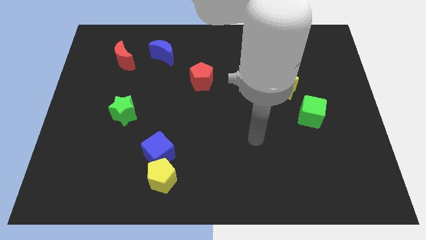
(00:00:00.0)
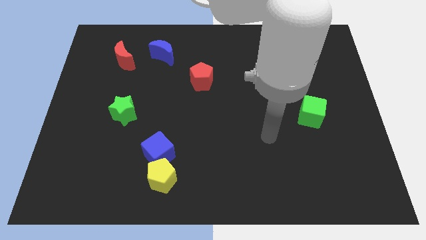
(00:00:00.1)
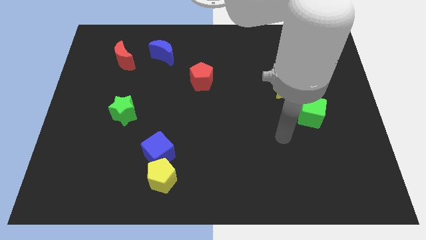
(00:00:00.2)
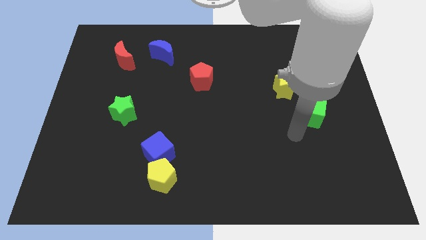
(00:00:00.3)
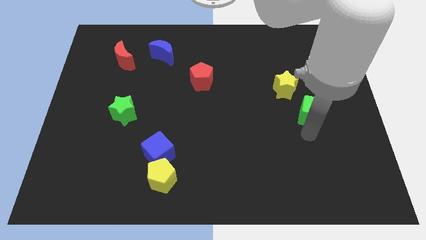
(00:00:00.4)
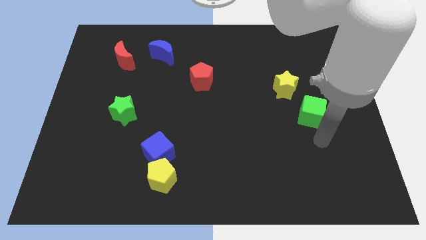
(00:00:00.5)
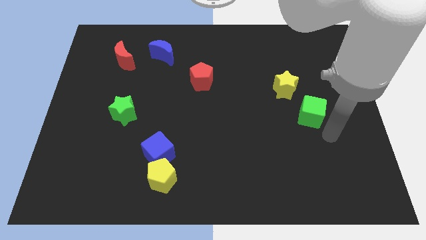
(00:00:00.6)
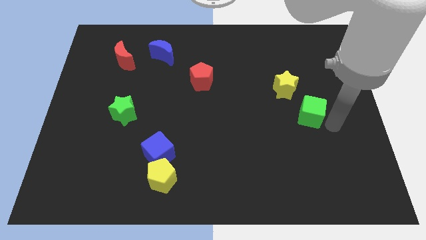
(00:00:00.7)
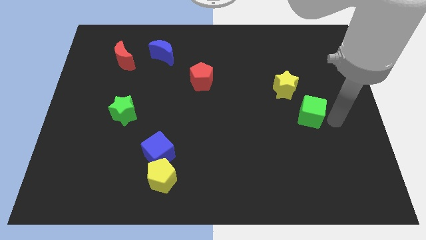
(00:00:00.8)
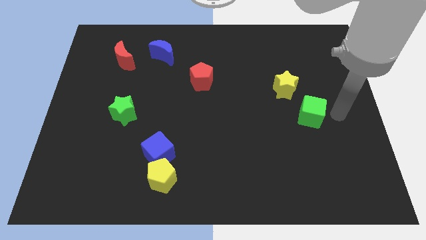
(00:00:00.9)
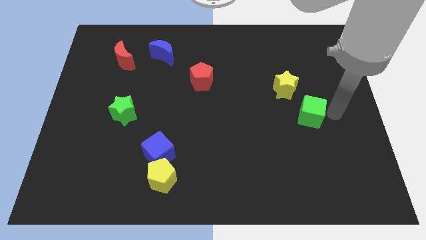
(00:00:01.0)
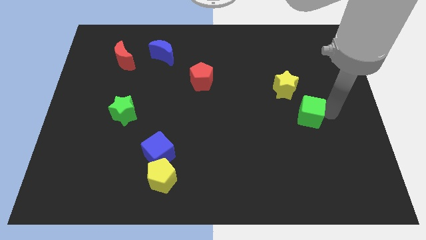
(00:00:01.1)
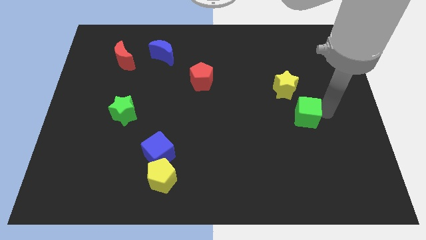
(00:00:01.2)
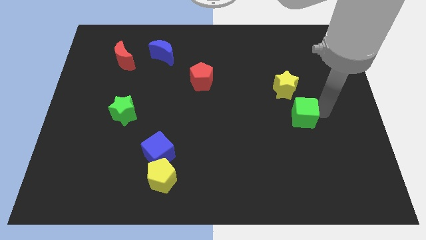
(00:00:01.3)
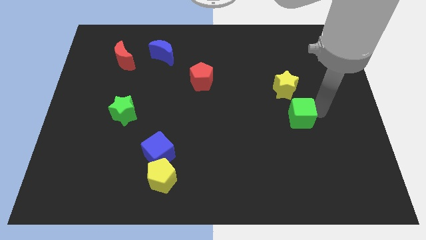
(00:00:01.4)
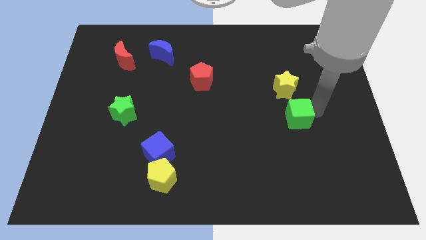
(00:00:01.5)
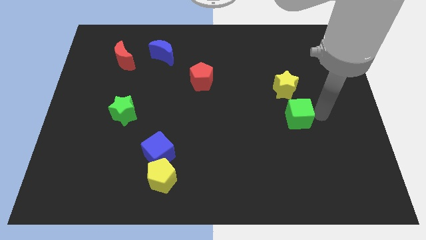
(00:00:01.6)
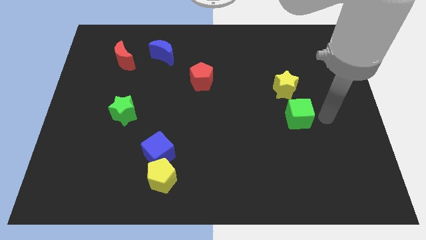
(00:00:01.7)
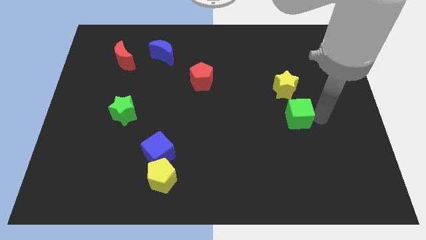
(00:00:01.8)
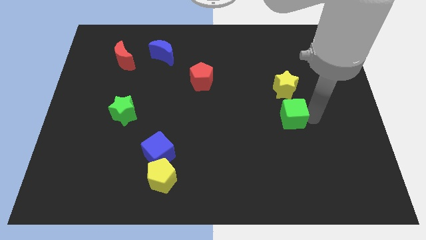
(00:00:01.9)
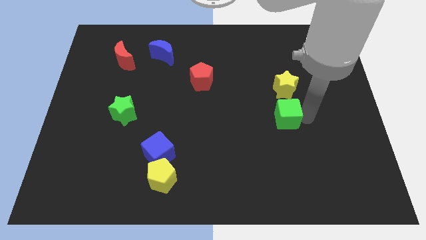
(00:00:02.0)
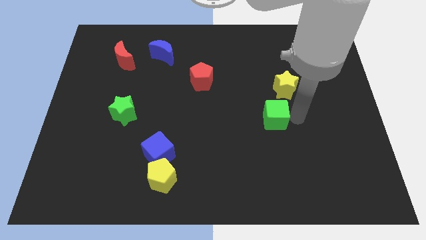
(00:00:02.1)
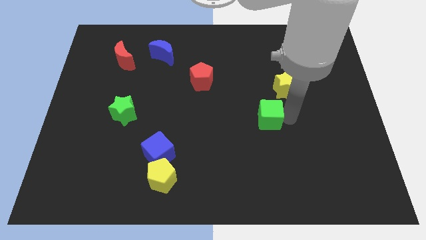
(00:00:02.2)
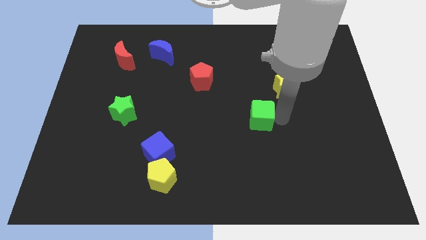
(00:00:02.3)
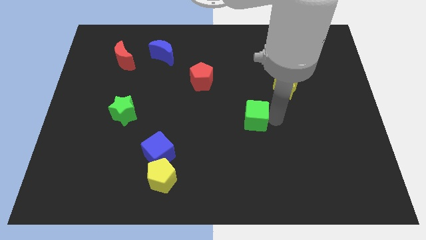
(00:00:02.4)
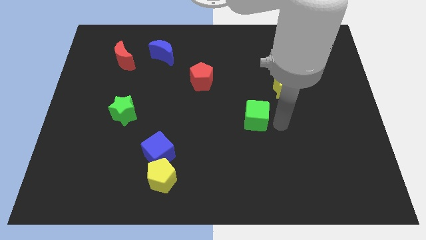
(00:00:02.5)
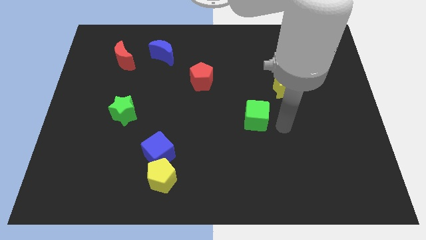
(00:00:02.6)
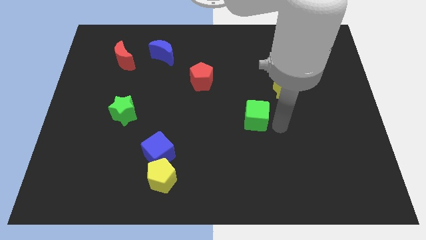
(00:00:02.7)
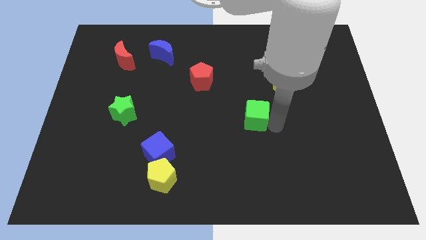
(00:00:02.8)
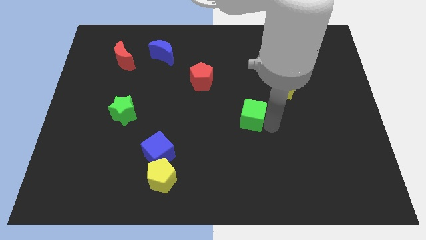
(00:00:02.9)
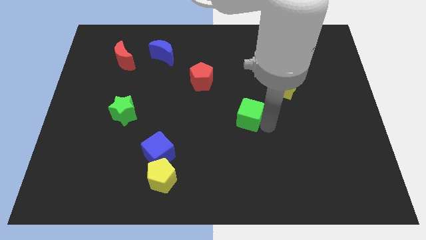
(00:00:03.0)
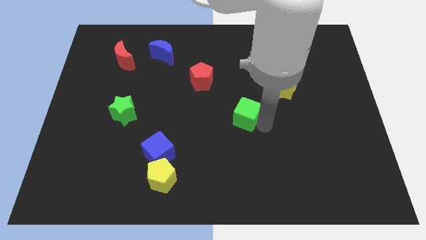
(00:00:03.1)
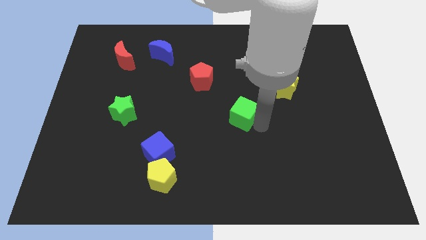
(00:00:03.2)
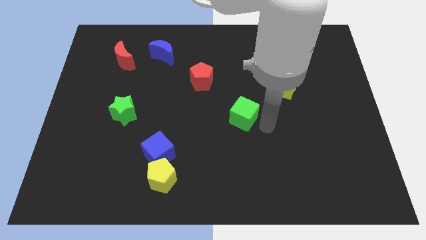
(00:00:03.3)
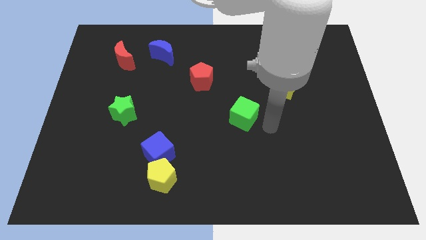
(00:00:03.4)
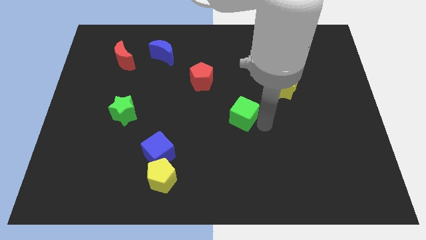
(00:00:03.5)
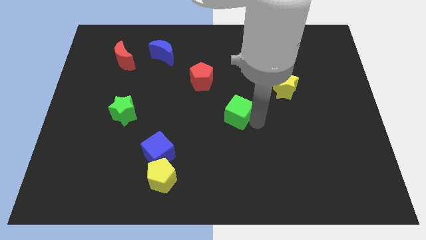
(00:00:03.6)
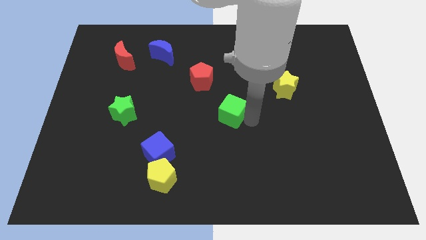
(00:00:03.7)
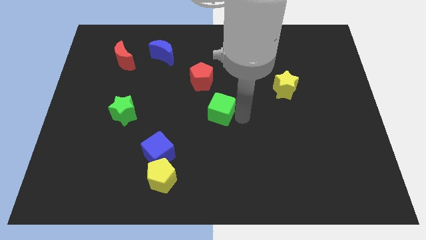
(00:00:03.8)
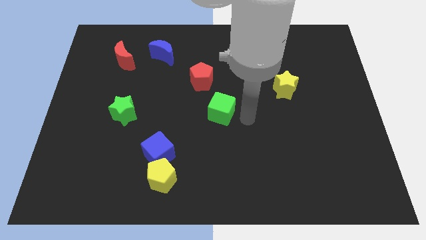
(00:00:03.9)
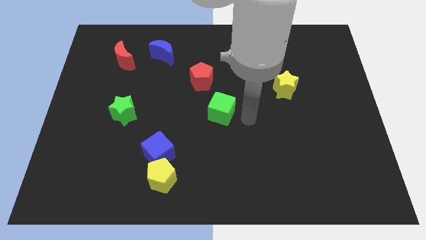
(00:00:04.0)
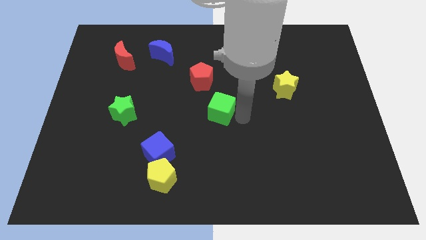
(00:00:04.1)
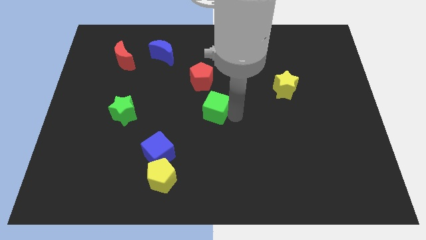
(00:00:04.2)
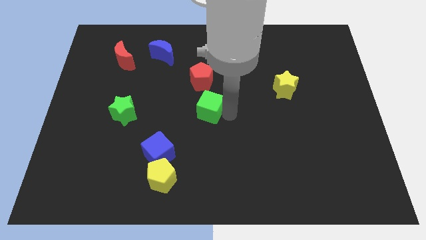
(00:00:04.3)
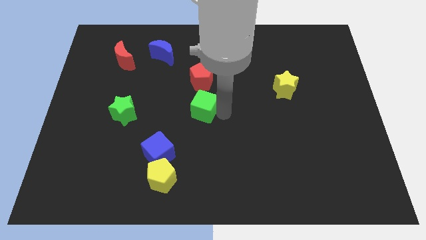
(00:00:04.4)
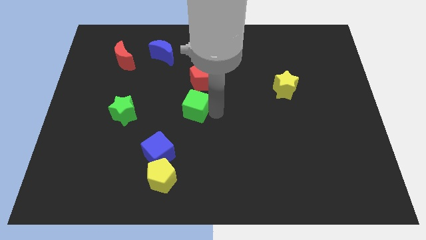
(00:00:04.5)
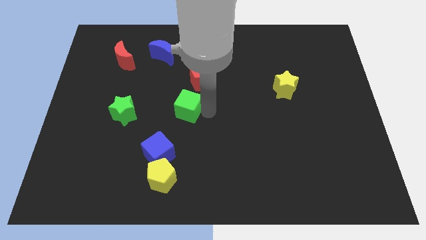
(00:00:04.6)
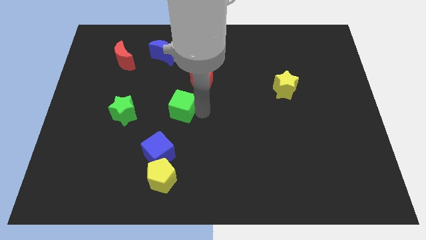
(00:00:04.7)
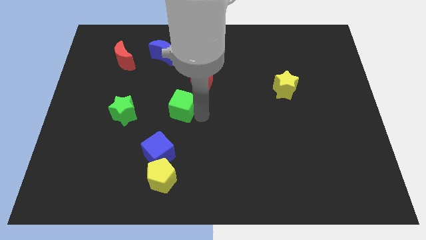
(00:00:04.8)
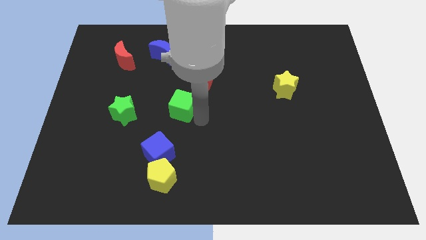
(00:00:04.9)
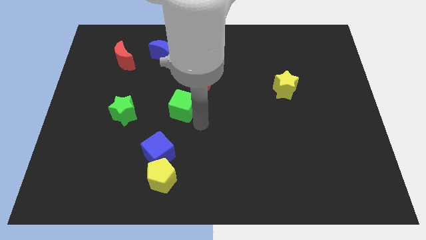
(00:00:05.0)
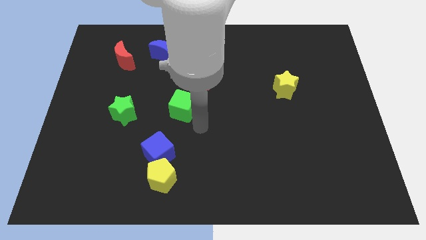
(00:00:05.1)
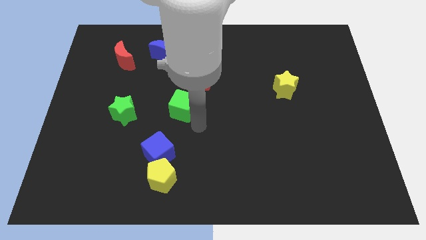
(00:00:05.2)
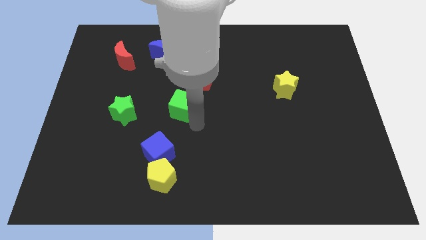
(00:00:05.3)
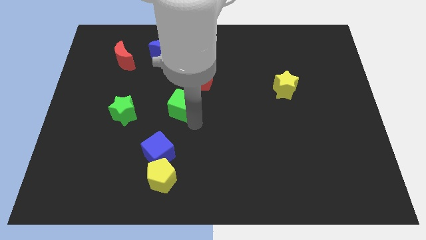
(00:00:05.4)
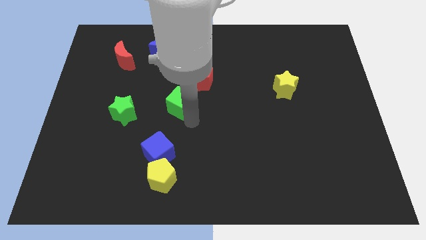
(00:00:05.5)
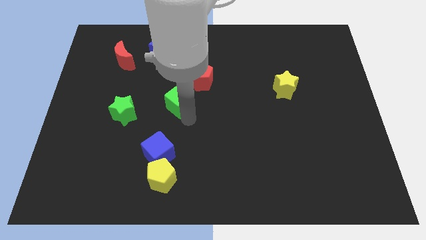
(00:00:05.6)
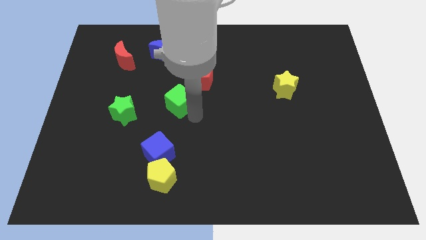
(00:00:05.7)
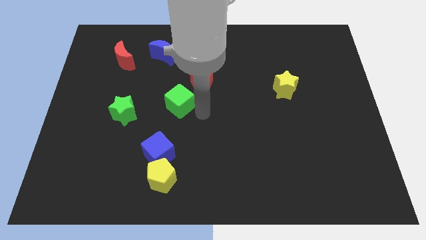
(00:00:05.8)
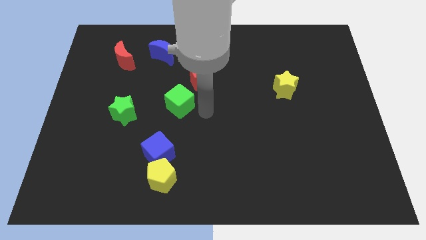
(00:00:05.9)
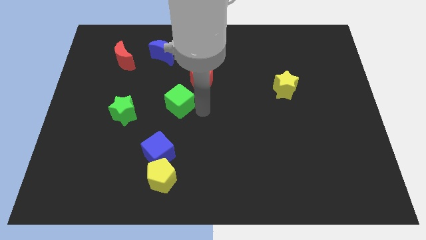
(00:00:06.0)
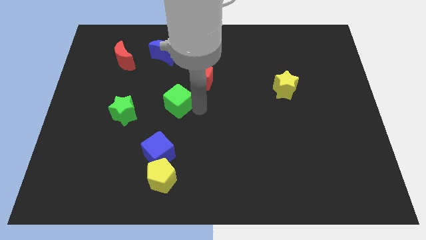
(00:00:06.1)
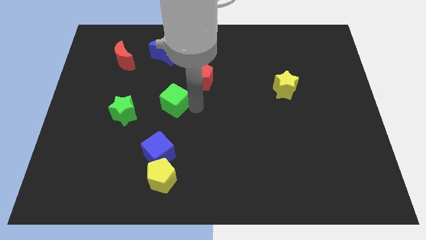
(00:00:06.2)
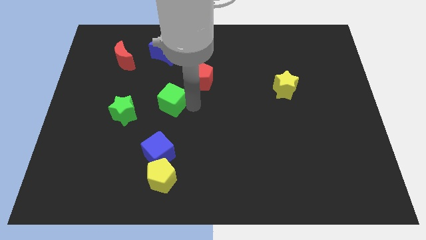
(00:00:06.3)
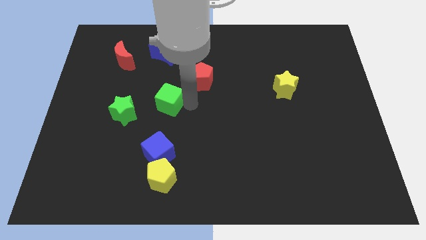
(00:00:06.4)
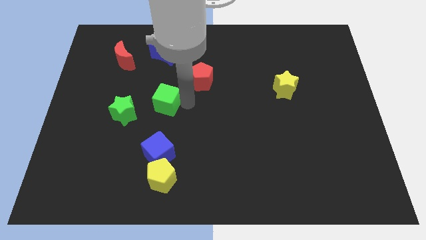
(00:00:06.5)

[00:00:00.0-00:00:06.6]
push the green cube to the top right of the green star
